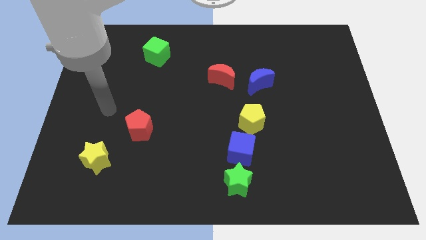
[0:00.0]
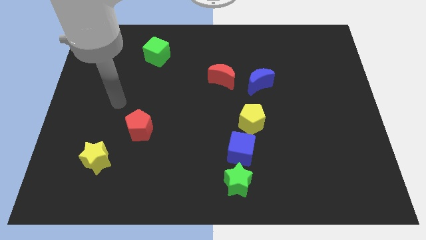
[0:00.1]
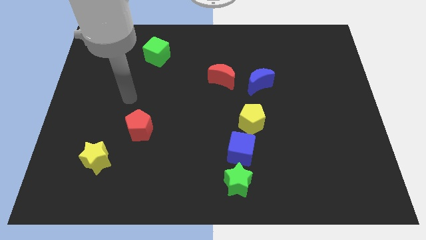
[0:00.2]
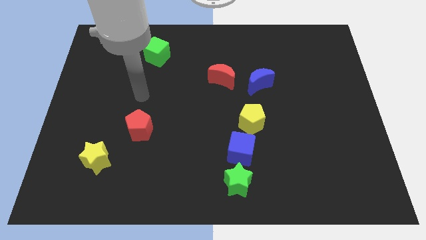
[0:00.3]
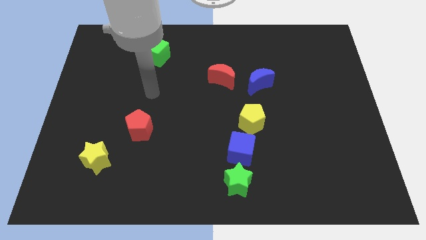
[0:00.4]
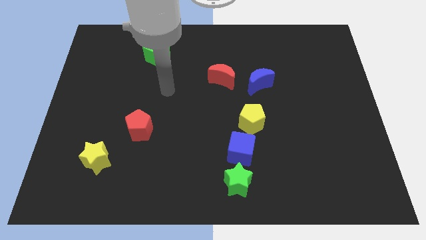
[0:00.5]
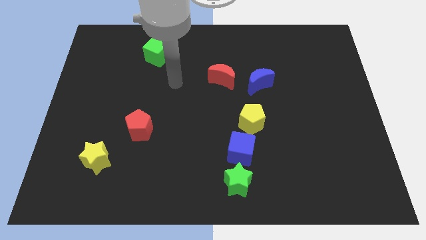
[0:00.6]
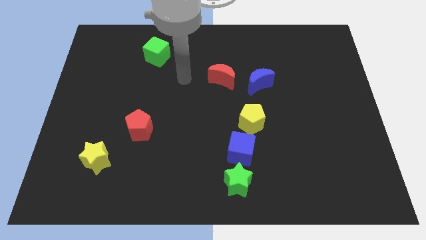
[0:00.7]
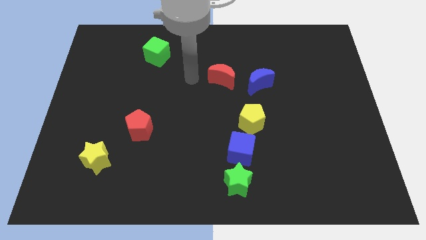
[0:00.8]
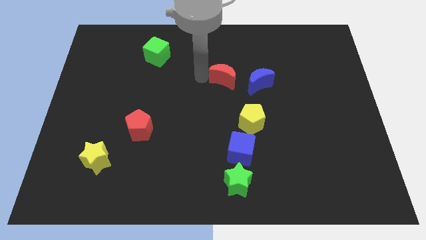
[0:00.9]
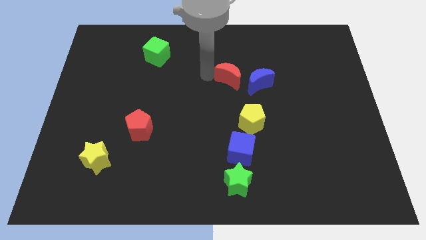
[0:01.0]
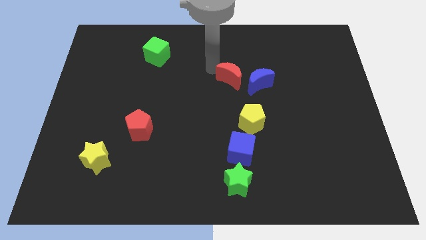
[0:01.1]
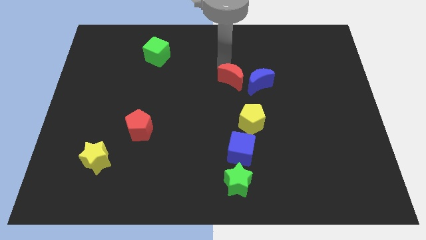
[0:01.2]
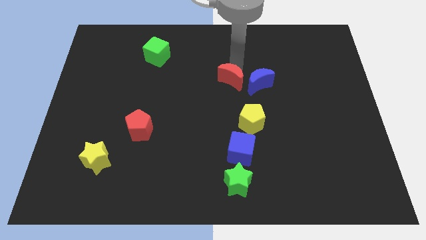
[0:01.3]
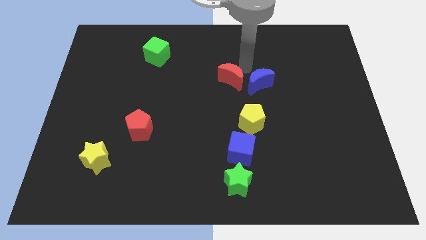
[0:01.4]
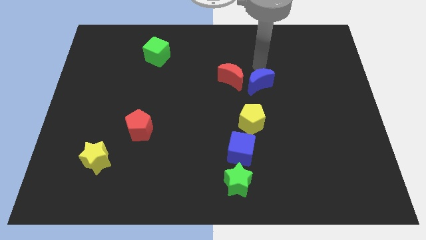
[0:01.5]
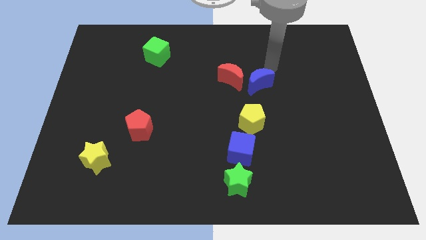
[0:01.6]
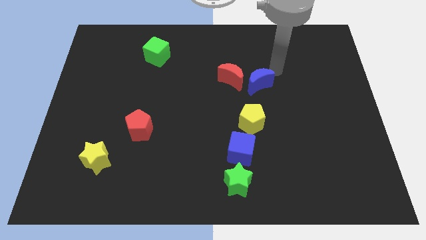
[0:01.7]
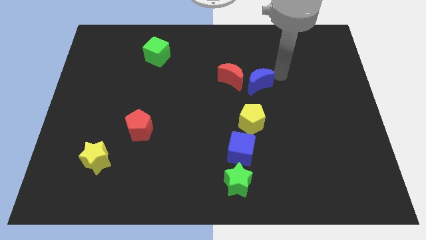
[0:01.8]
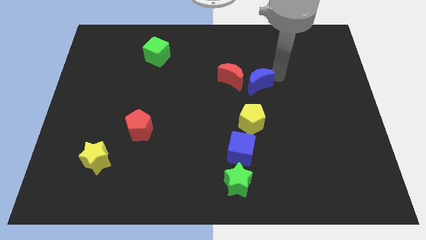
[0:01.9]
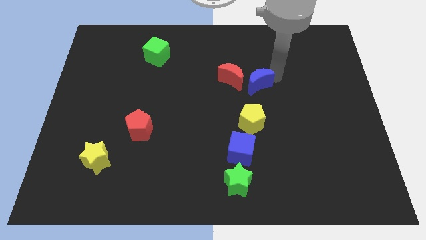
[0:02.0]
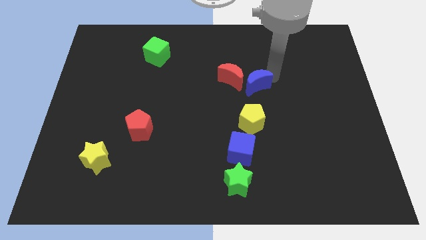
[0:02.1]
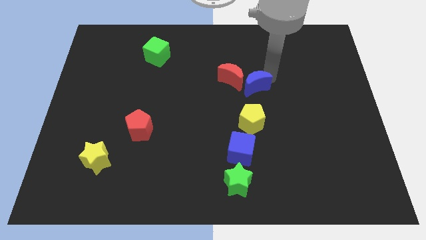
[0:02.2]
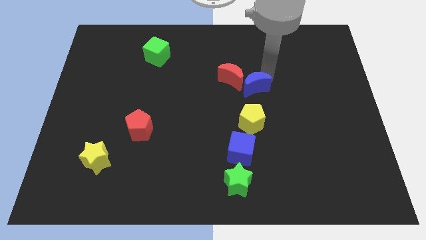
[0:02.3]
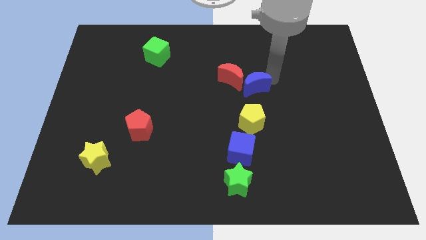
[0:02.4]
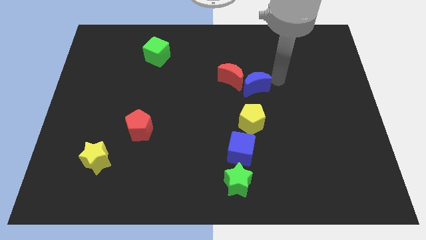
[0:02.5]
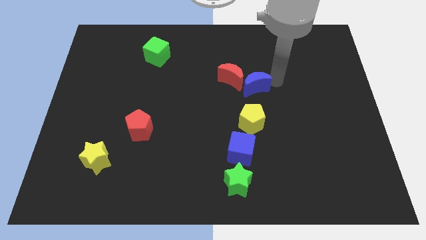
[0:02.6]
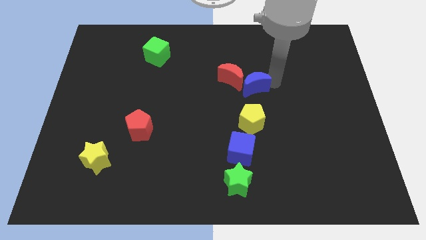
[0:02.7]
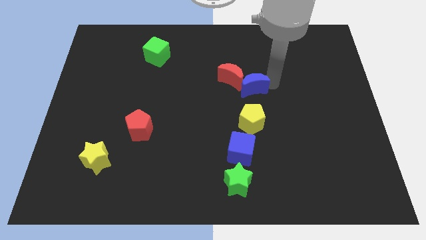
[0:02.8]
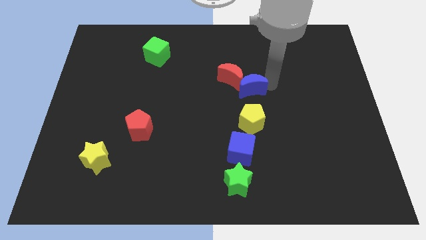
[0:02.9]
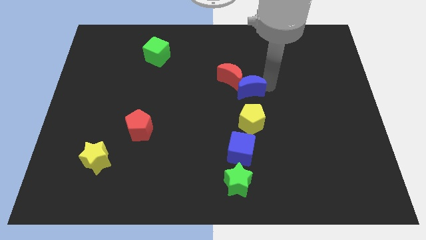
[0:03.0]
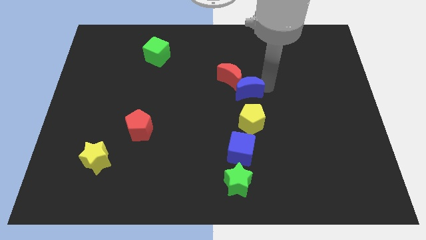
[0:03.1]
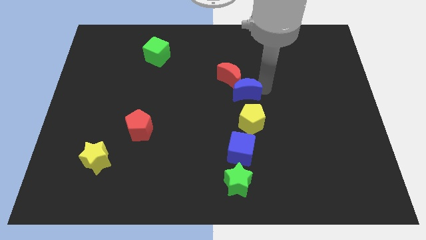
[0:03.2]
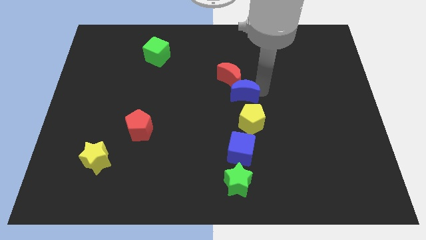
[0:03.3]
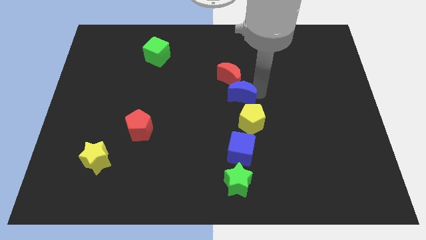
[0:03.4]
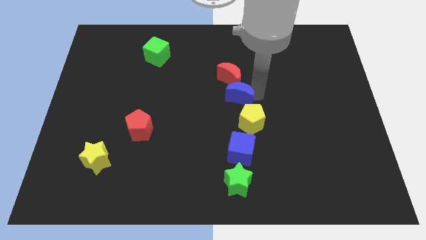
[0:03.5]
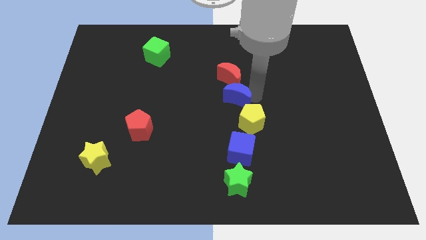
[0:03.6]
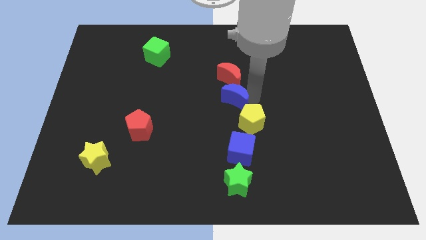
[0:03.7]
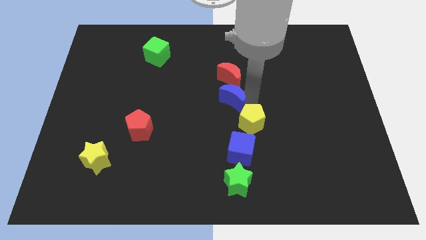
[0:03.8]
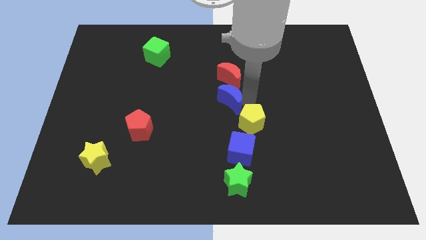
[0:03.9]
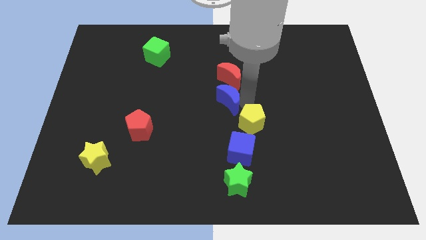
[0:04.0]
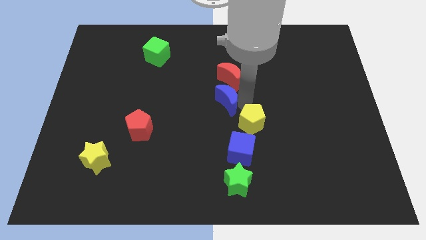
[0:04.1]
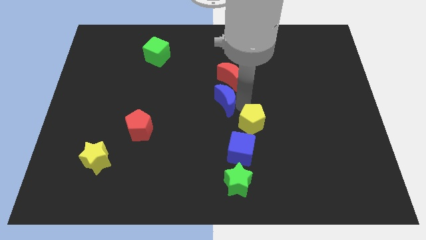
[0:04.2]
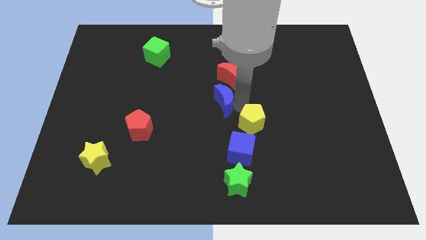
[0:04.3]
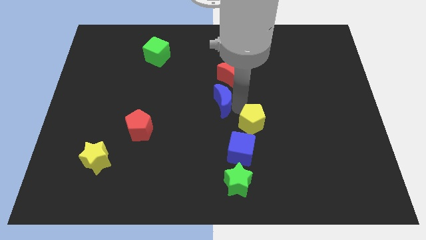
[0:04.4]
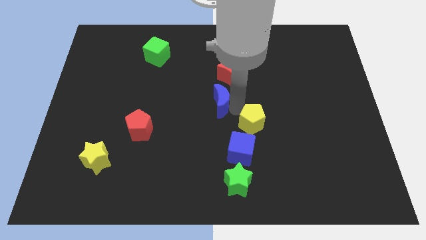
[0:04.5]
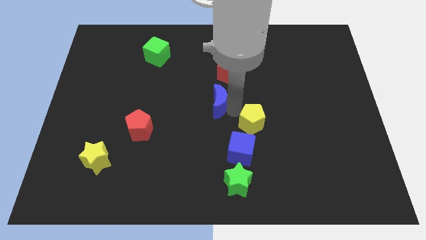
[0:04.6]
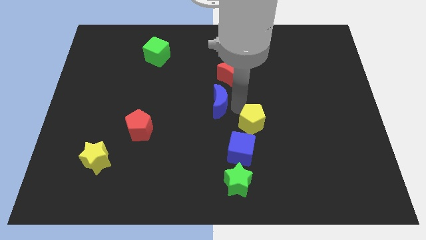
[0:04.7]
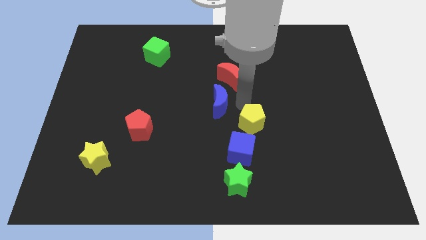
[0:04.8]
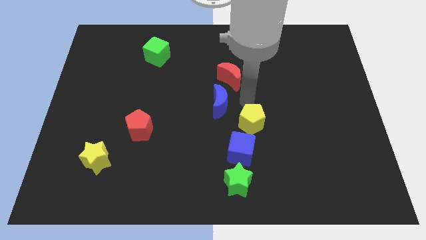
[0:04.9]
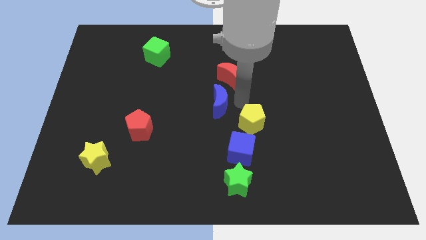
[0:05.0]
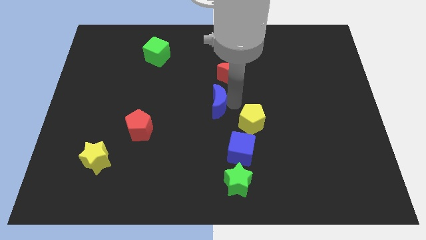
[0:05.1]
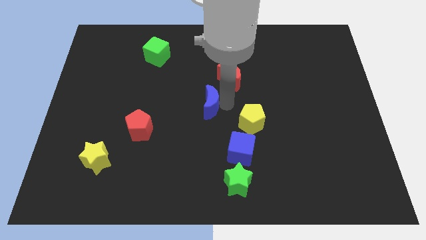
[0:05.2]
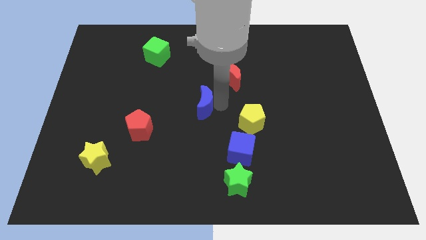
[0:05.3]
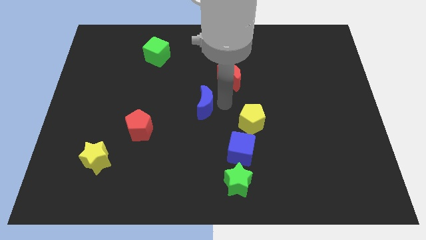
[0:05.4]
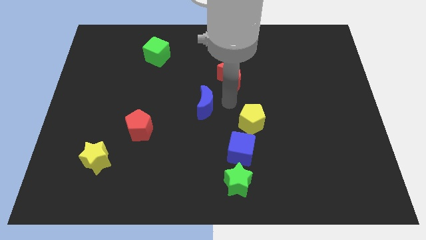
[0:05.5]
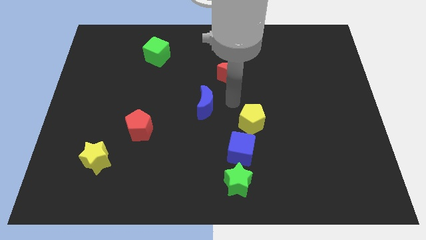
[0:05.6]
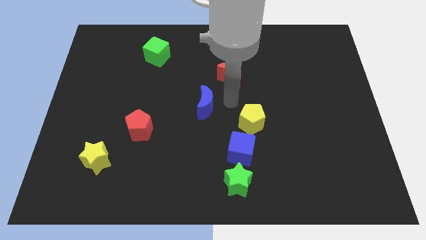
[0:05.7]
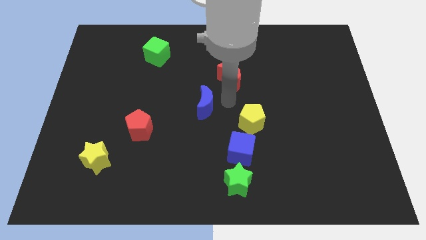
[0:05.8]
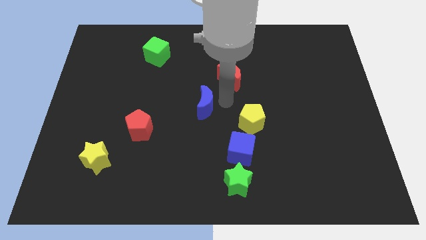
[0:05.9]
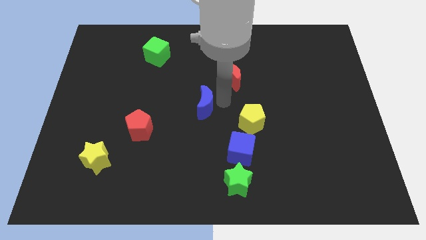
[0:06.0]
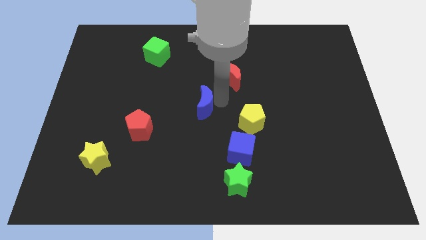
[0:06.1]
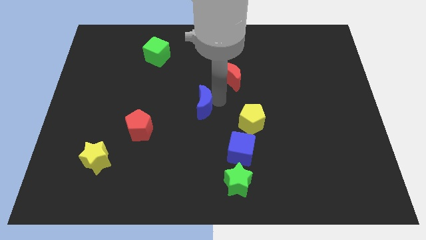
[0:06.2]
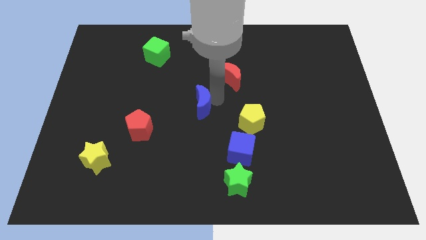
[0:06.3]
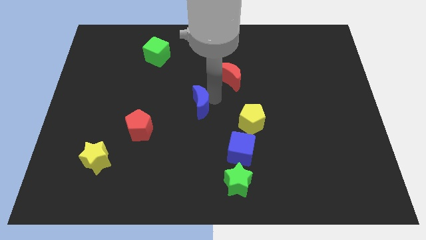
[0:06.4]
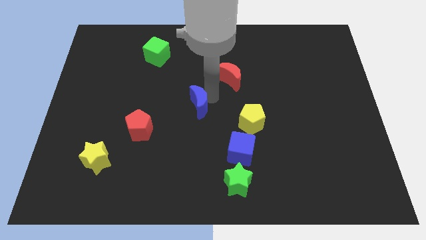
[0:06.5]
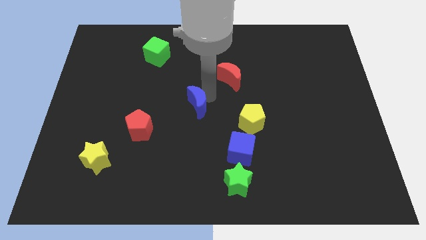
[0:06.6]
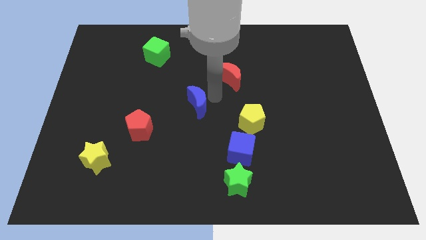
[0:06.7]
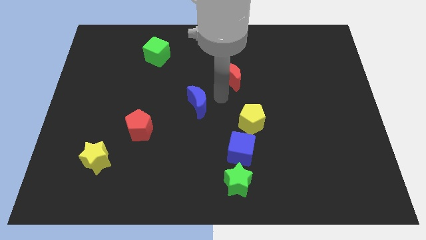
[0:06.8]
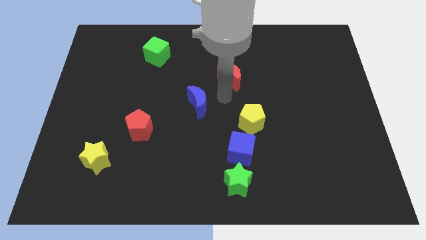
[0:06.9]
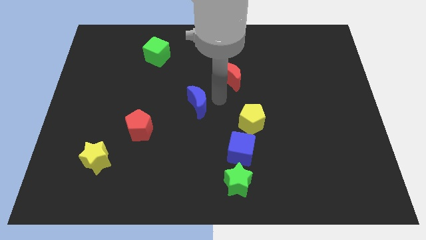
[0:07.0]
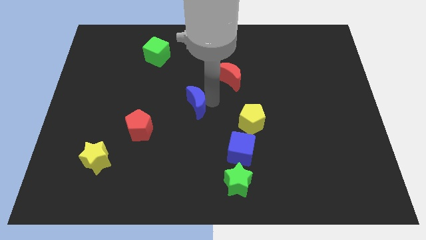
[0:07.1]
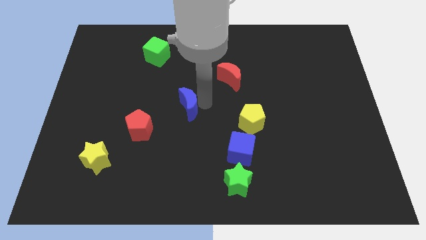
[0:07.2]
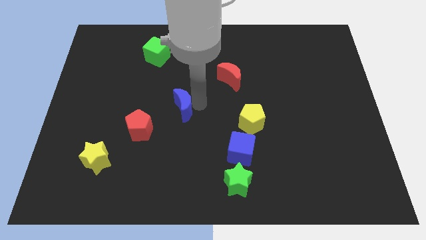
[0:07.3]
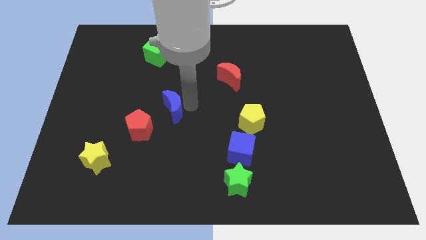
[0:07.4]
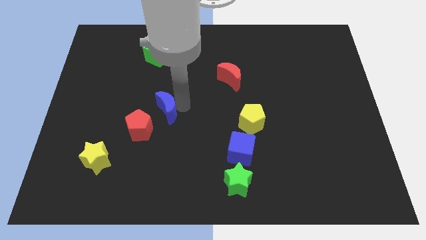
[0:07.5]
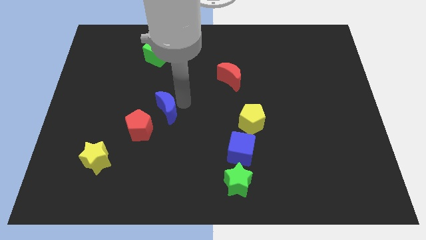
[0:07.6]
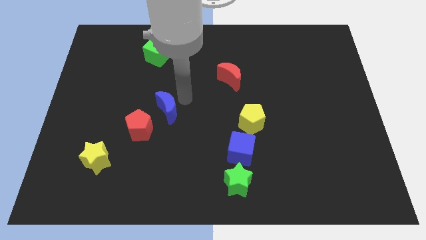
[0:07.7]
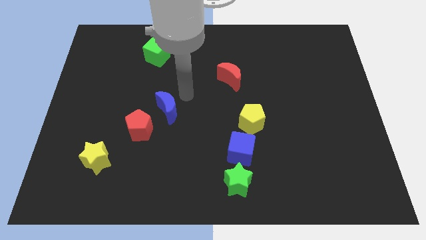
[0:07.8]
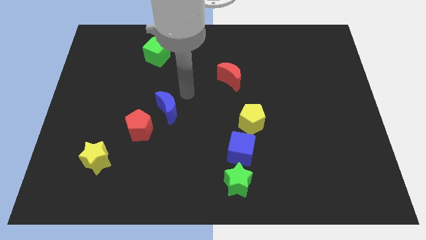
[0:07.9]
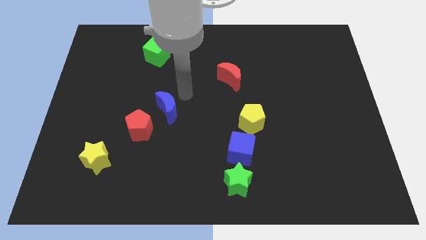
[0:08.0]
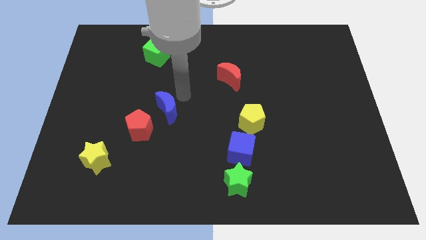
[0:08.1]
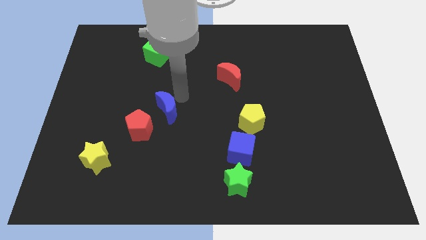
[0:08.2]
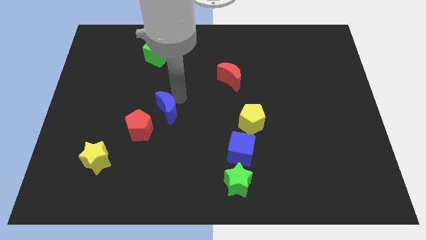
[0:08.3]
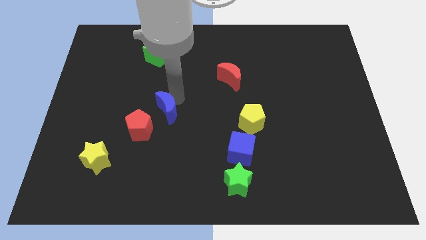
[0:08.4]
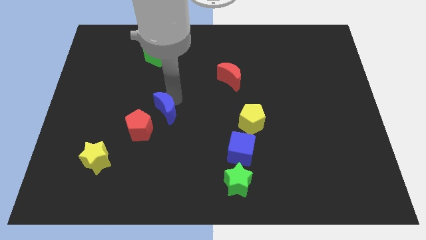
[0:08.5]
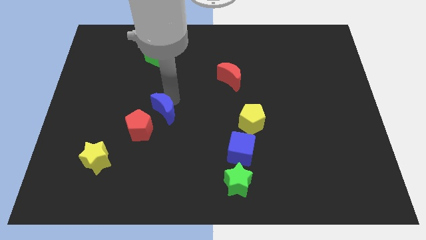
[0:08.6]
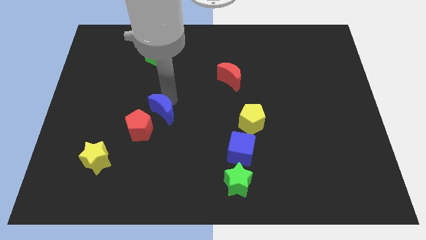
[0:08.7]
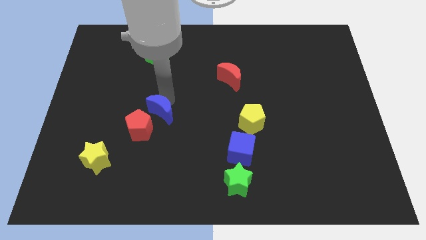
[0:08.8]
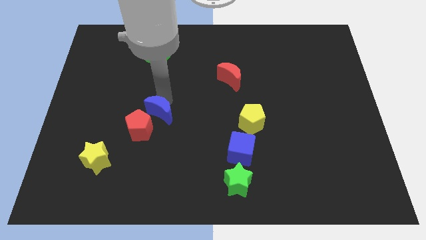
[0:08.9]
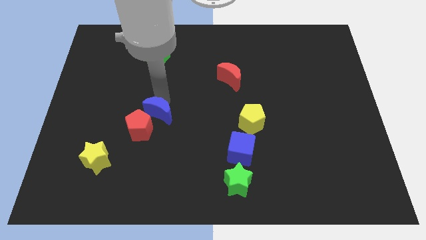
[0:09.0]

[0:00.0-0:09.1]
move the blue moon next to the red pentagon
